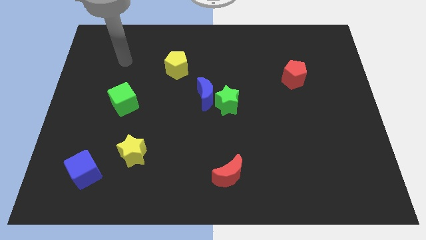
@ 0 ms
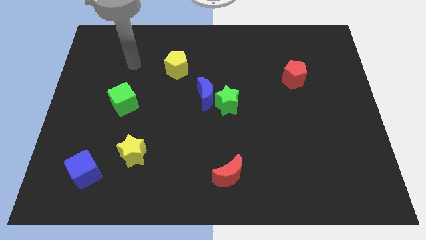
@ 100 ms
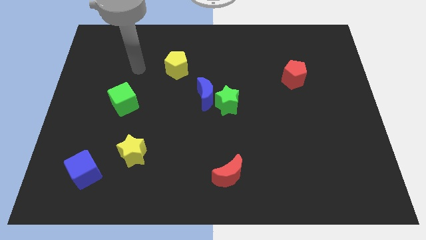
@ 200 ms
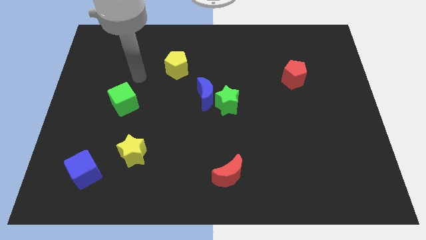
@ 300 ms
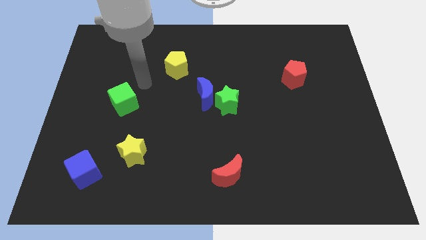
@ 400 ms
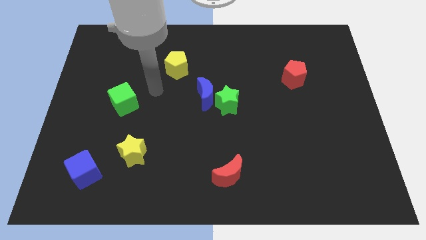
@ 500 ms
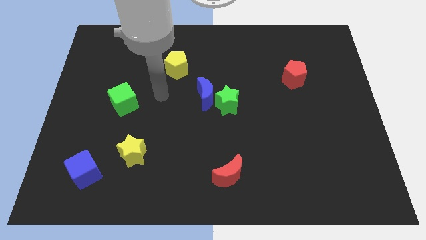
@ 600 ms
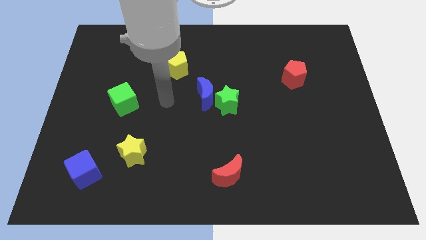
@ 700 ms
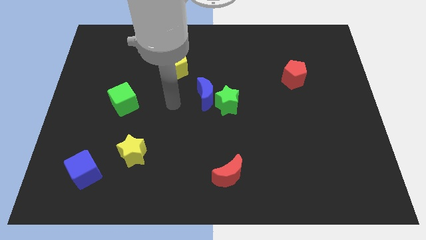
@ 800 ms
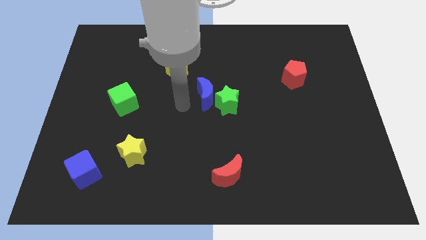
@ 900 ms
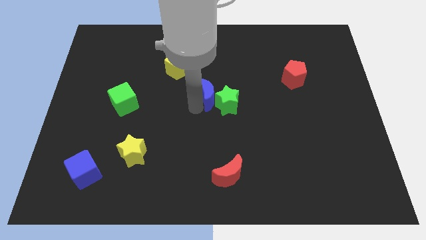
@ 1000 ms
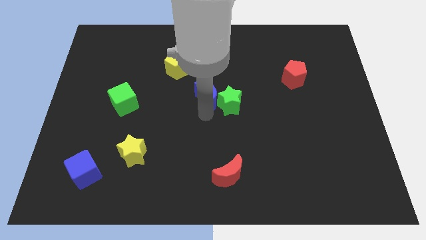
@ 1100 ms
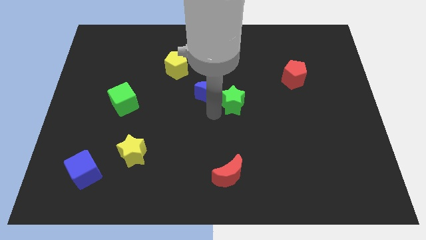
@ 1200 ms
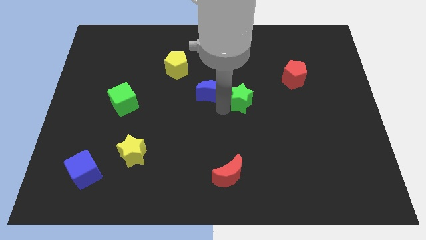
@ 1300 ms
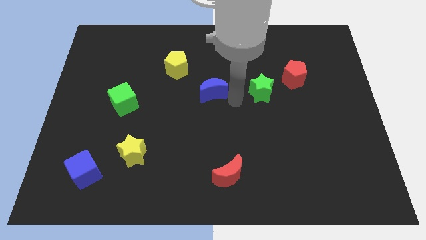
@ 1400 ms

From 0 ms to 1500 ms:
separate the blue moon from the green star

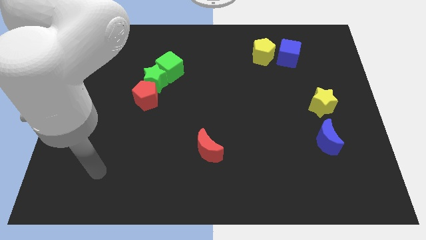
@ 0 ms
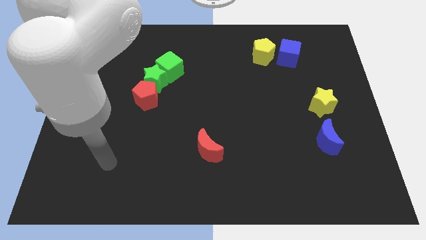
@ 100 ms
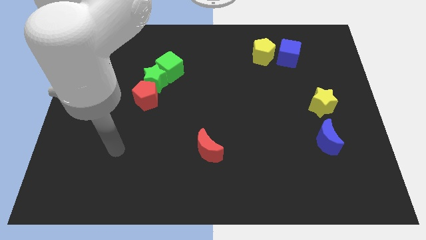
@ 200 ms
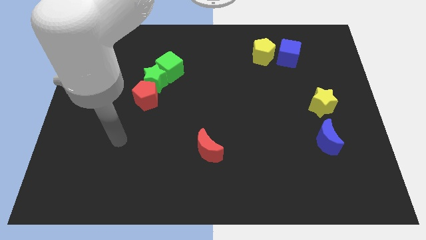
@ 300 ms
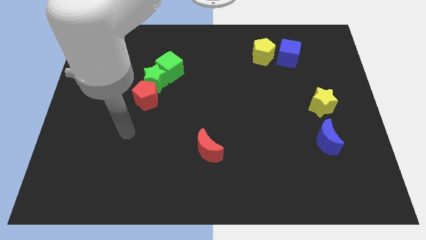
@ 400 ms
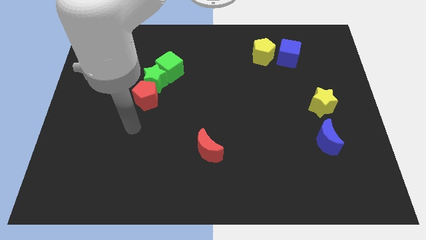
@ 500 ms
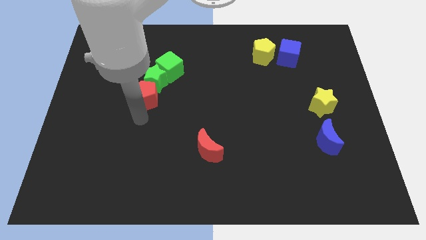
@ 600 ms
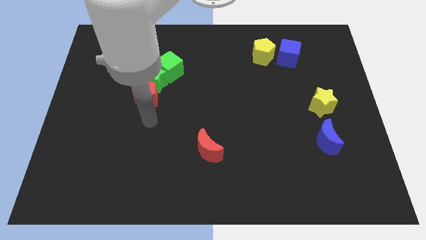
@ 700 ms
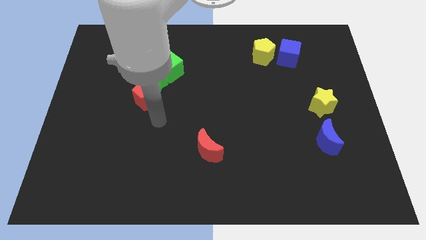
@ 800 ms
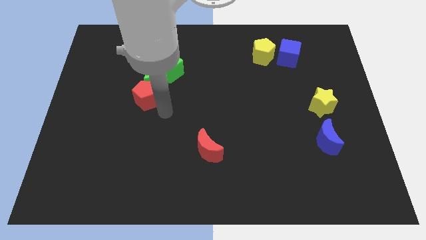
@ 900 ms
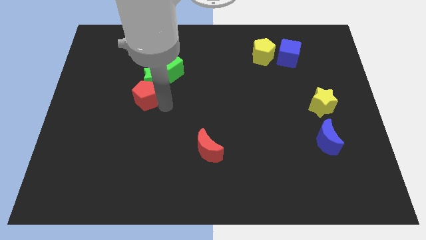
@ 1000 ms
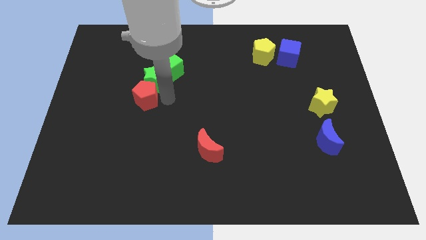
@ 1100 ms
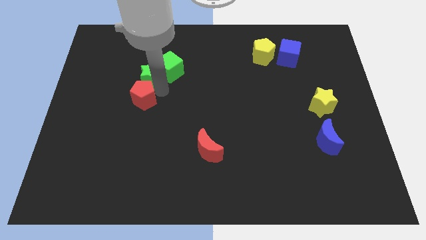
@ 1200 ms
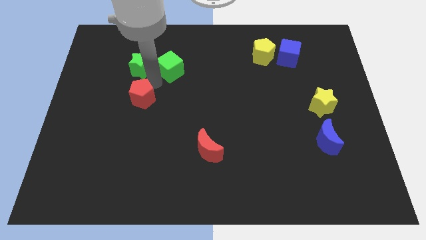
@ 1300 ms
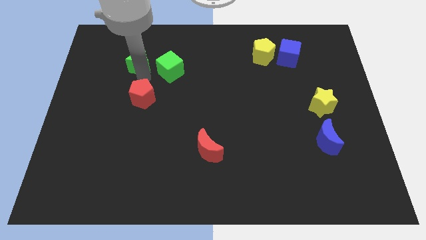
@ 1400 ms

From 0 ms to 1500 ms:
move the red pentagon away from the green star

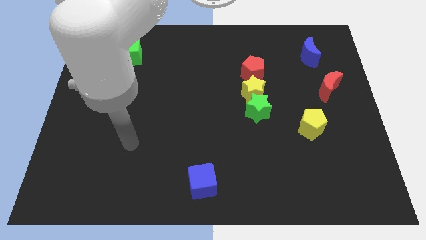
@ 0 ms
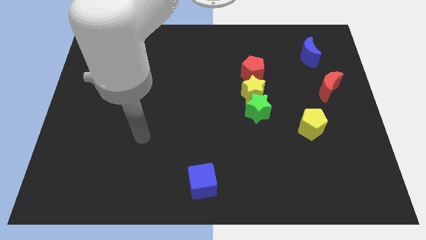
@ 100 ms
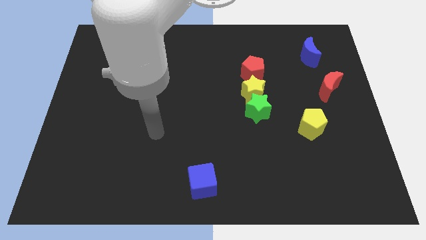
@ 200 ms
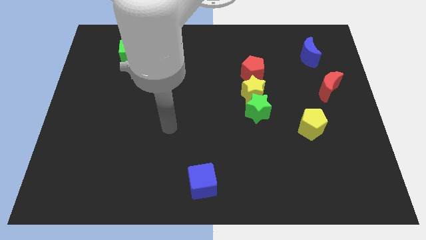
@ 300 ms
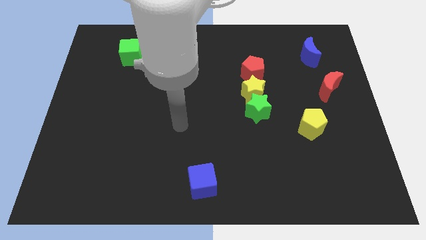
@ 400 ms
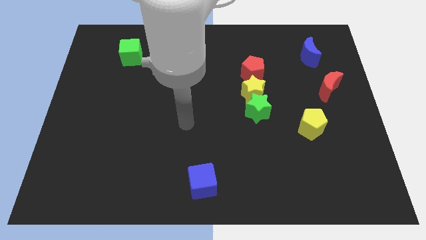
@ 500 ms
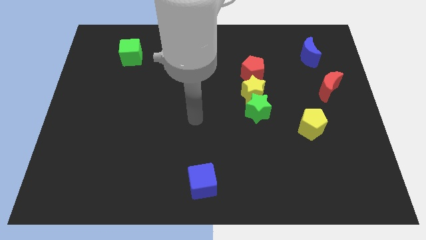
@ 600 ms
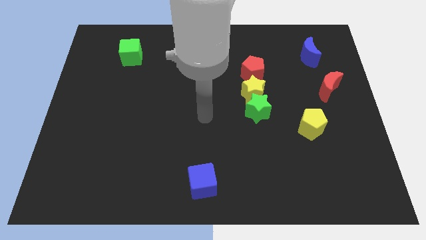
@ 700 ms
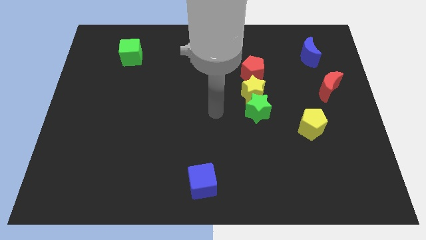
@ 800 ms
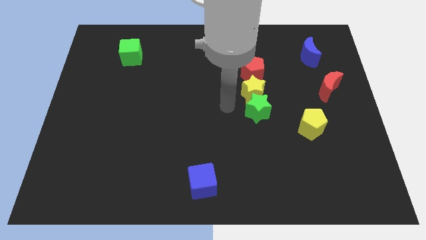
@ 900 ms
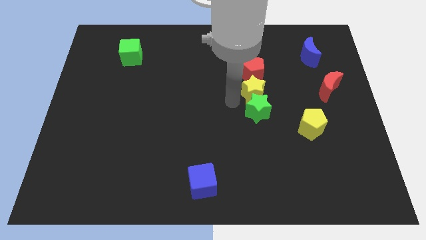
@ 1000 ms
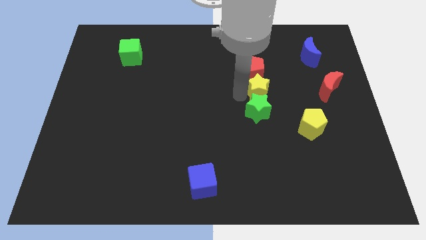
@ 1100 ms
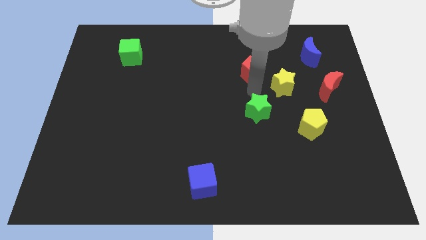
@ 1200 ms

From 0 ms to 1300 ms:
pull the green star apart from the yellow star

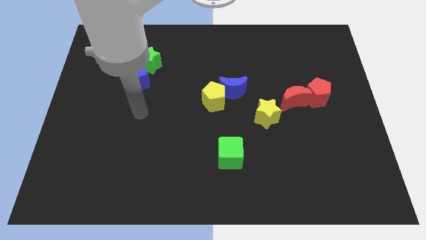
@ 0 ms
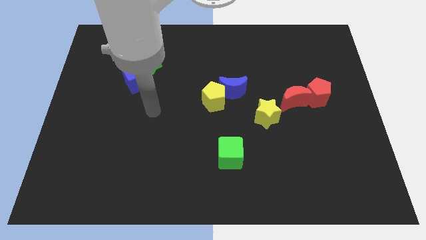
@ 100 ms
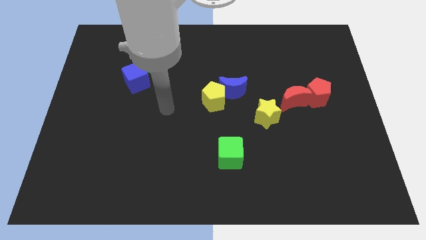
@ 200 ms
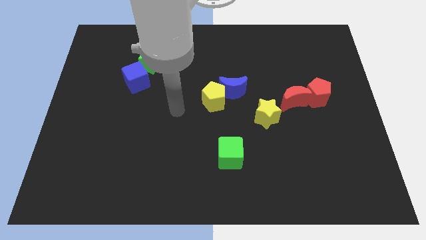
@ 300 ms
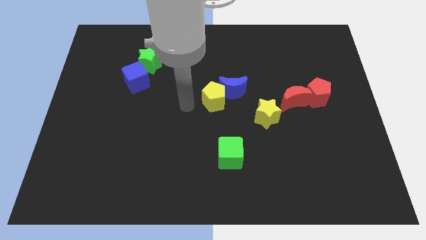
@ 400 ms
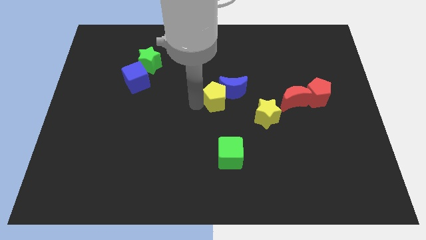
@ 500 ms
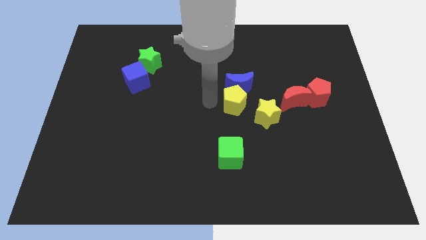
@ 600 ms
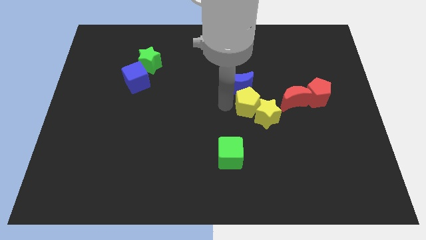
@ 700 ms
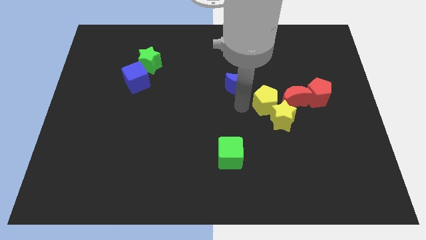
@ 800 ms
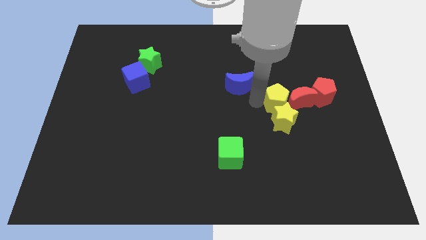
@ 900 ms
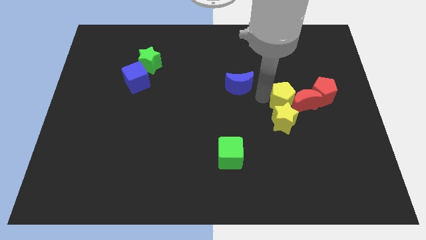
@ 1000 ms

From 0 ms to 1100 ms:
move the blue moon away from the yellow pentagon

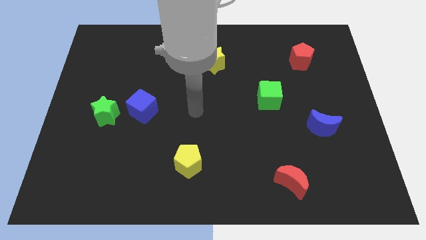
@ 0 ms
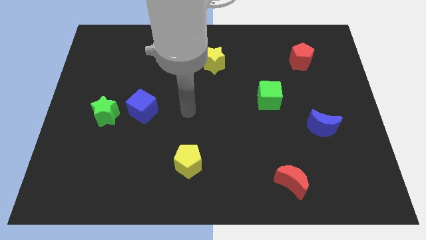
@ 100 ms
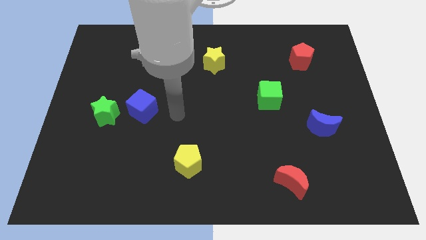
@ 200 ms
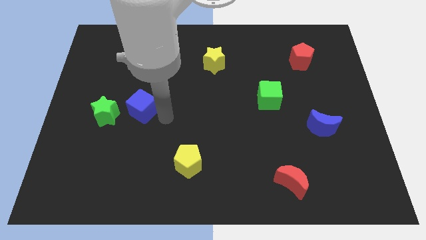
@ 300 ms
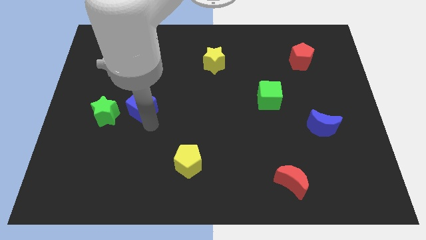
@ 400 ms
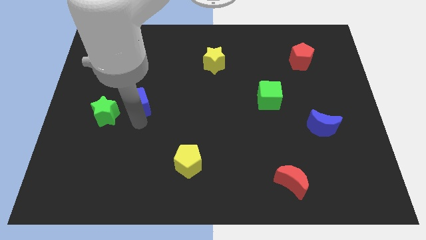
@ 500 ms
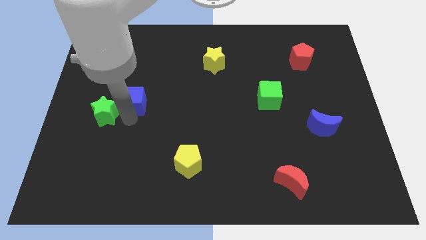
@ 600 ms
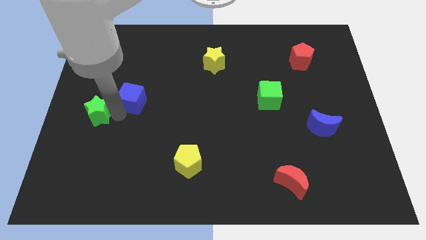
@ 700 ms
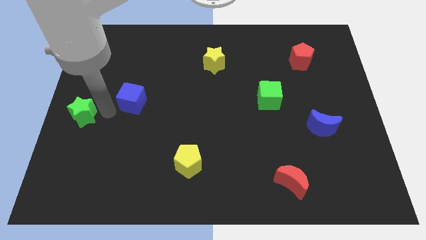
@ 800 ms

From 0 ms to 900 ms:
pull the blue cube apart from the green star

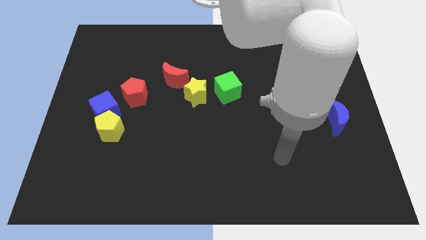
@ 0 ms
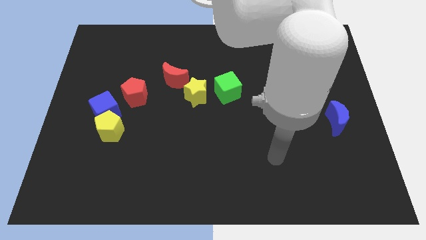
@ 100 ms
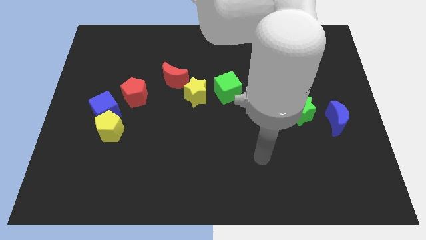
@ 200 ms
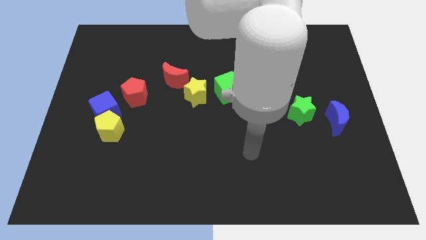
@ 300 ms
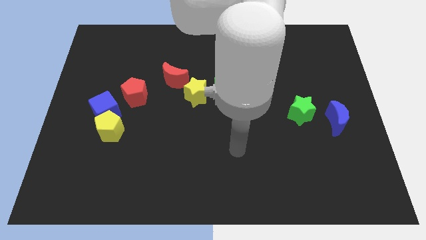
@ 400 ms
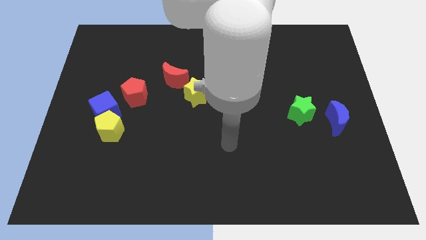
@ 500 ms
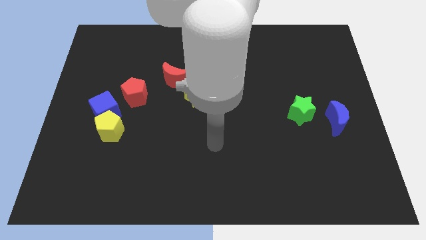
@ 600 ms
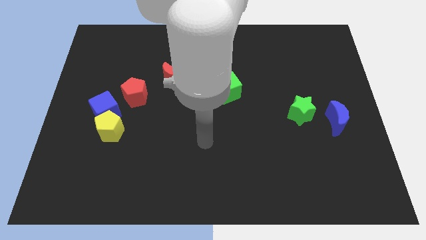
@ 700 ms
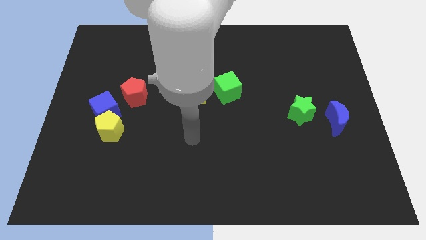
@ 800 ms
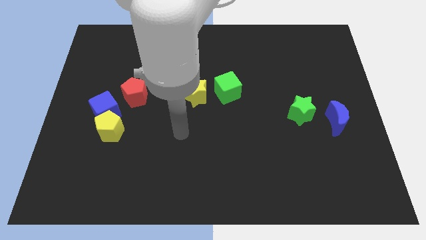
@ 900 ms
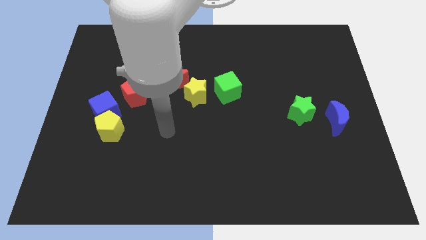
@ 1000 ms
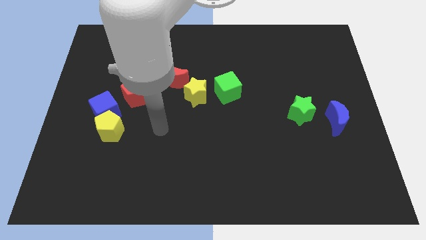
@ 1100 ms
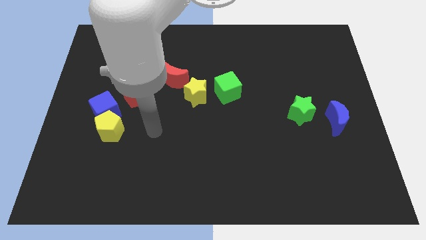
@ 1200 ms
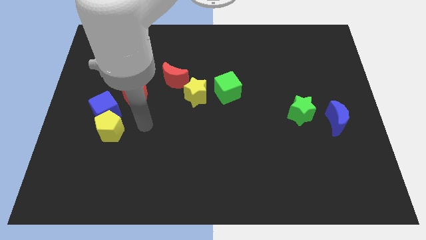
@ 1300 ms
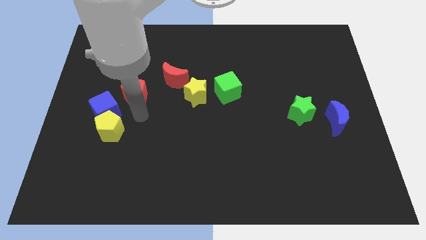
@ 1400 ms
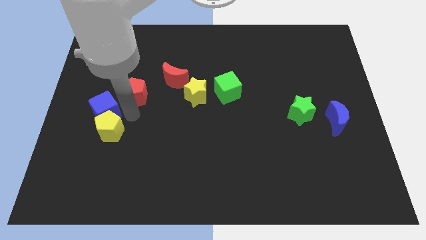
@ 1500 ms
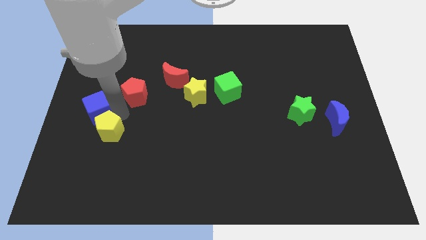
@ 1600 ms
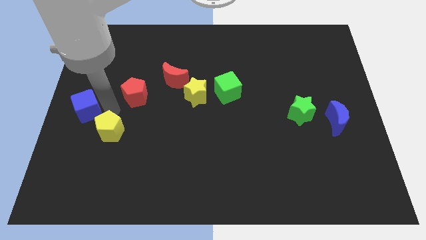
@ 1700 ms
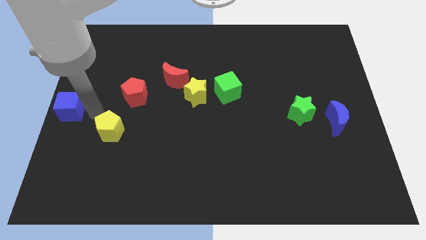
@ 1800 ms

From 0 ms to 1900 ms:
separate the yellow pentagon from the blue cube

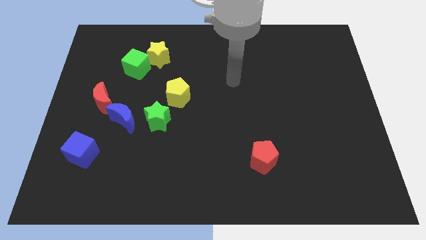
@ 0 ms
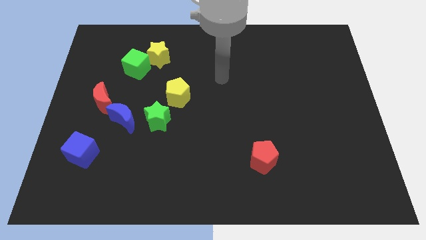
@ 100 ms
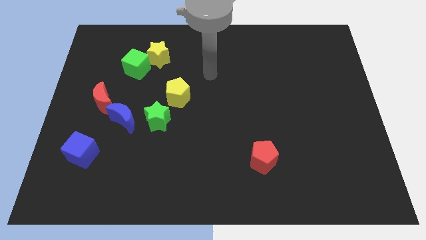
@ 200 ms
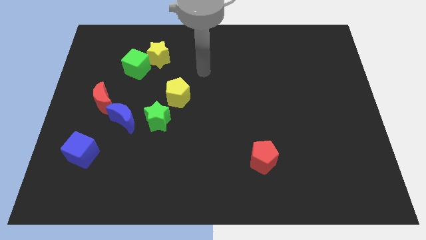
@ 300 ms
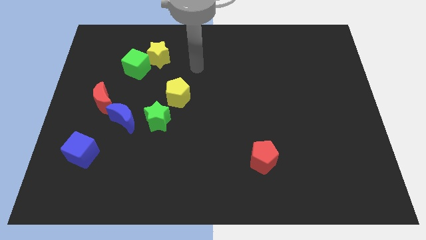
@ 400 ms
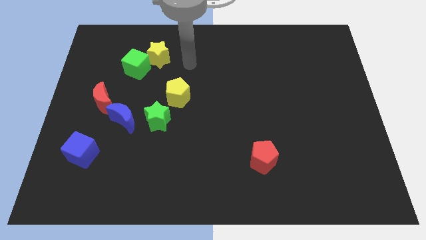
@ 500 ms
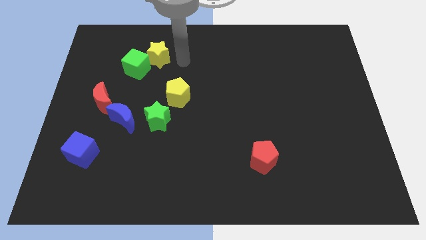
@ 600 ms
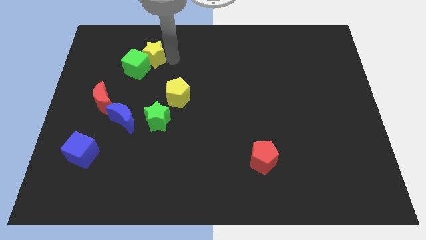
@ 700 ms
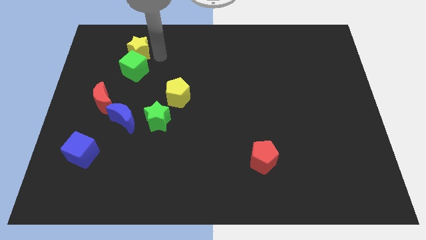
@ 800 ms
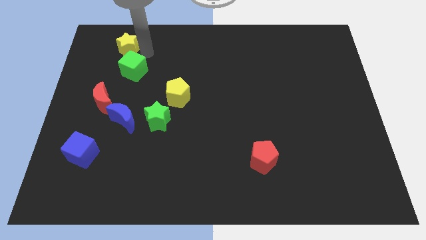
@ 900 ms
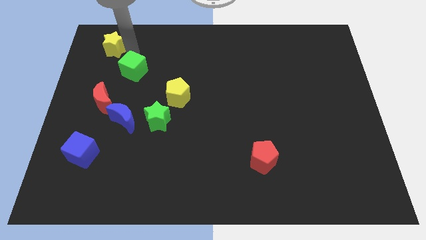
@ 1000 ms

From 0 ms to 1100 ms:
move the green cube away from the yellow star
